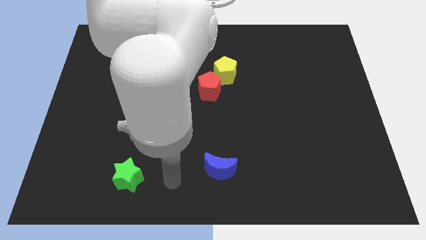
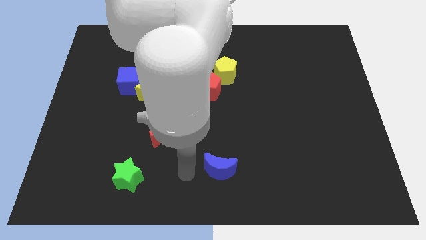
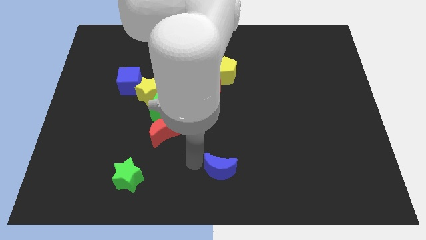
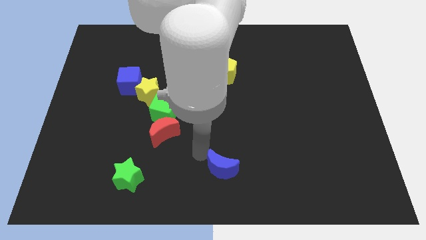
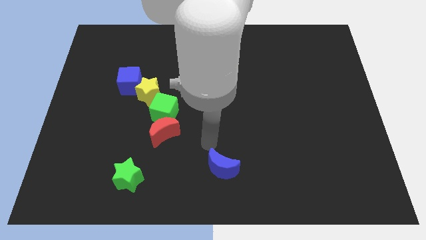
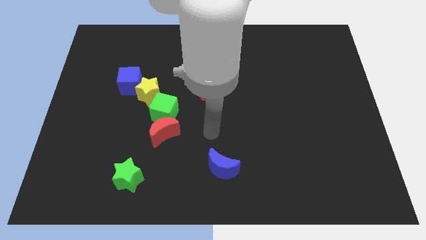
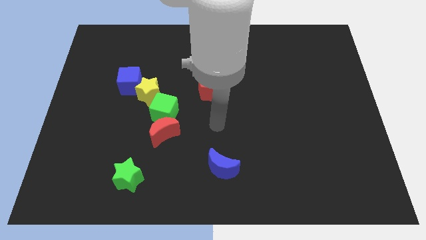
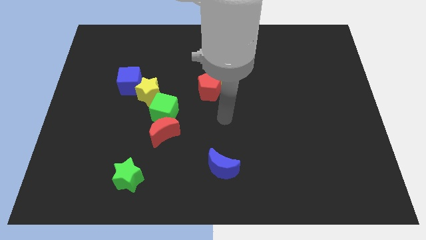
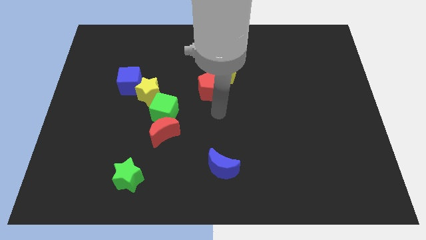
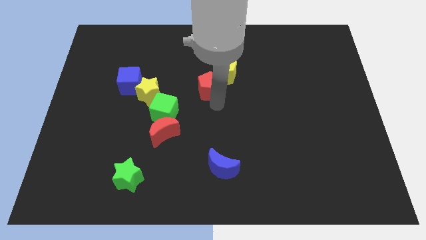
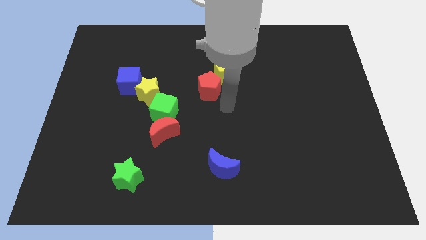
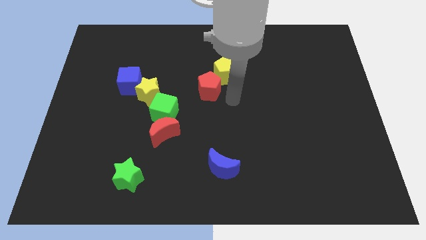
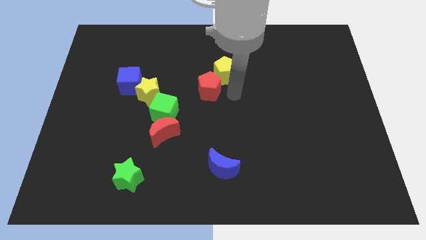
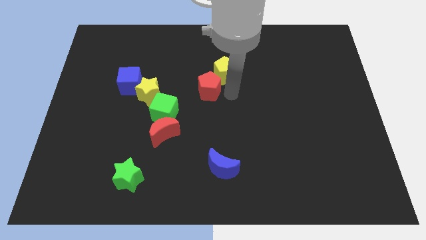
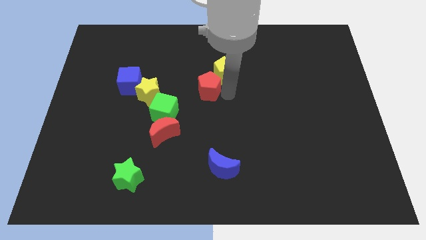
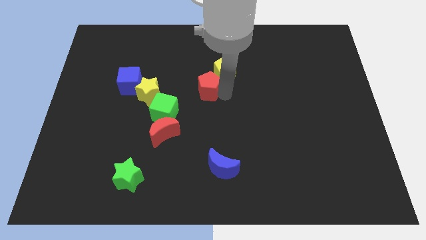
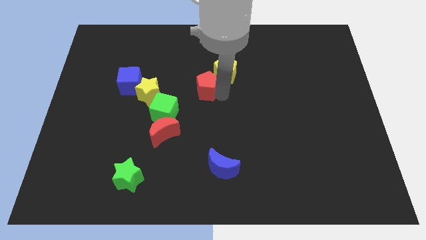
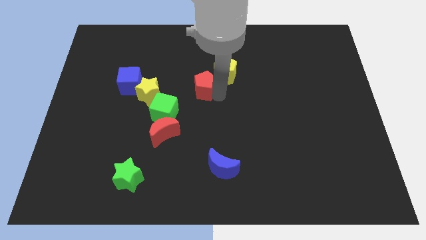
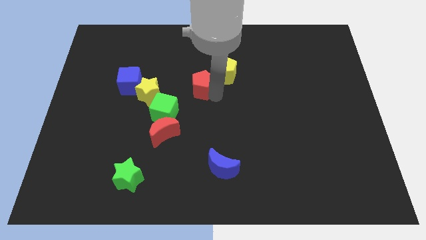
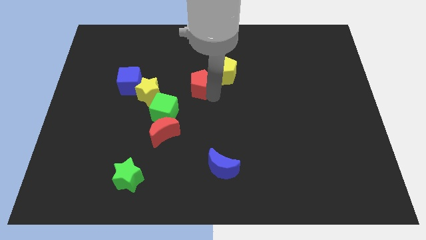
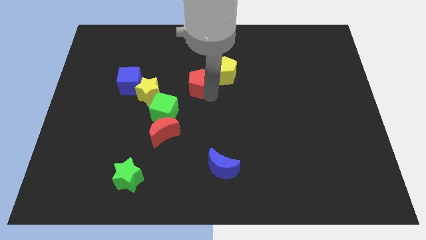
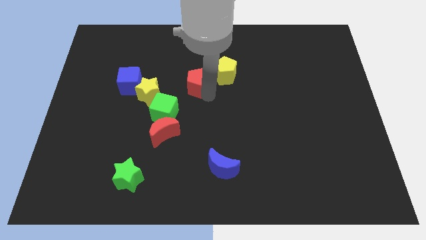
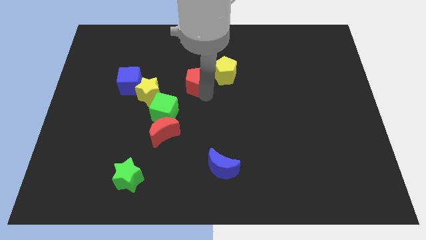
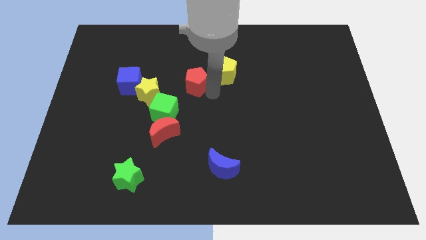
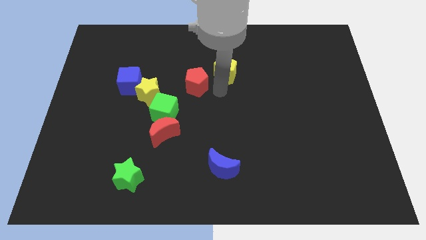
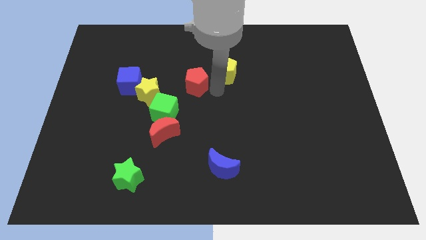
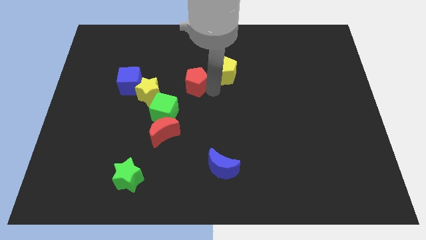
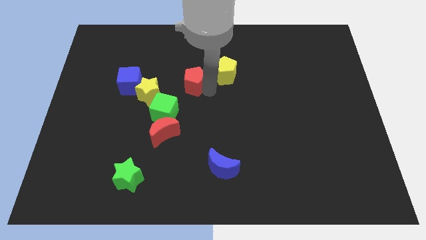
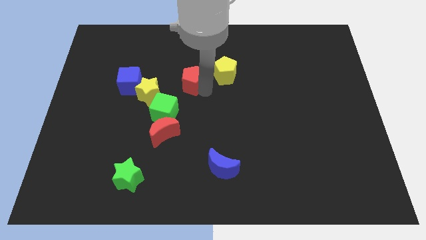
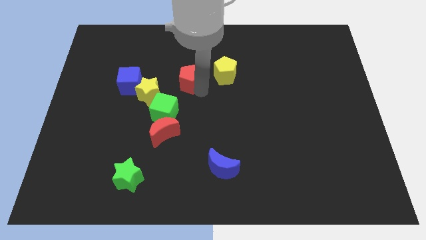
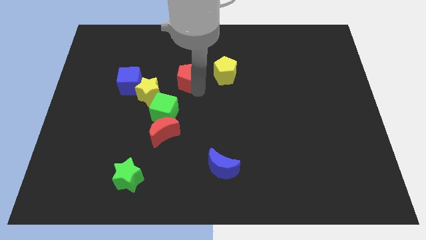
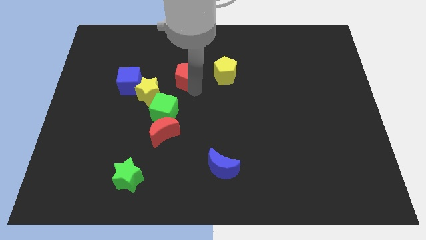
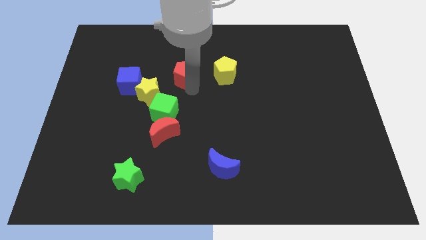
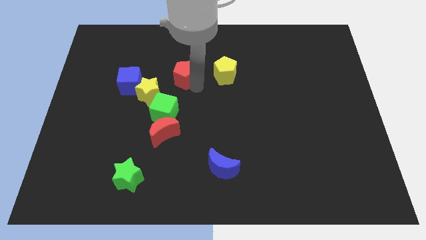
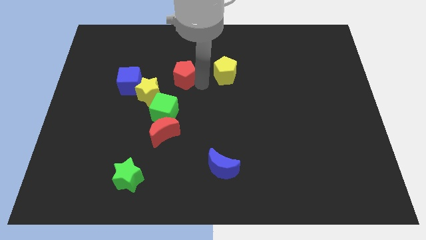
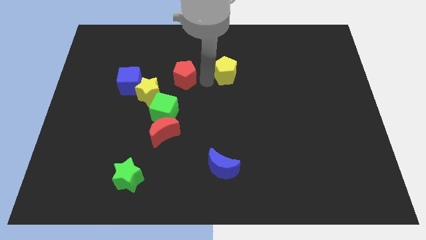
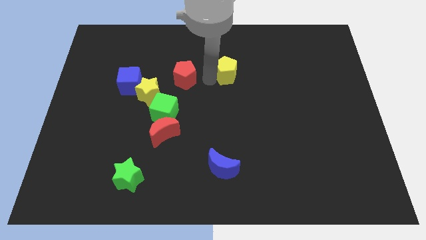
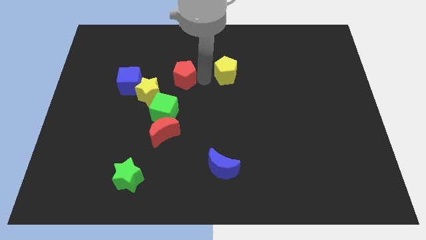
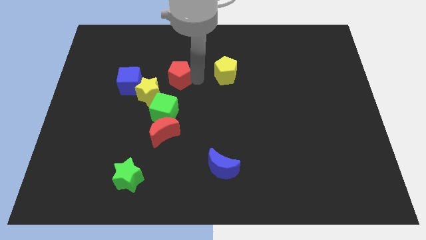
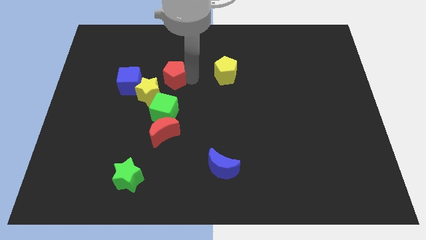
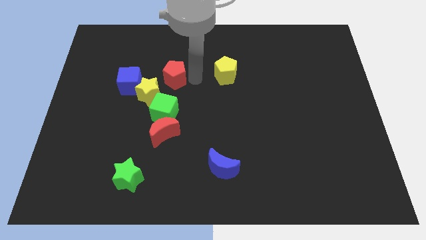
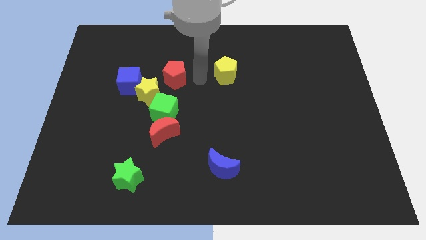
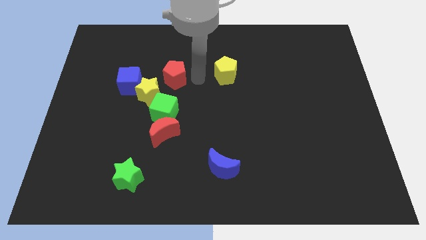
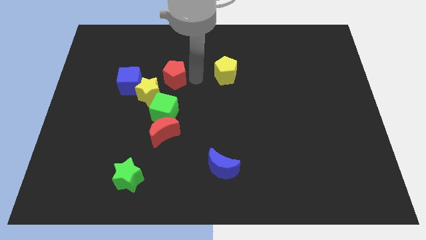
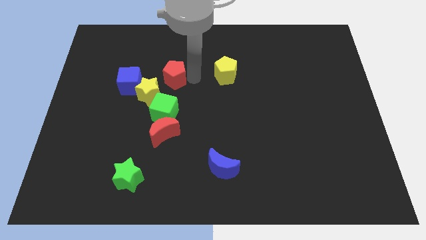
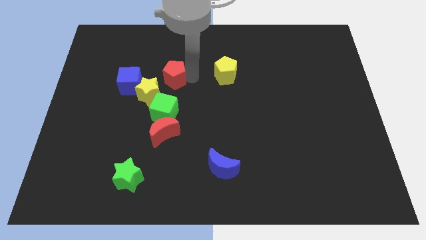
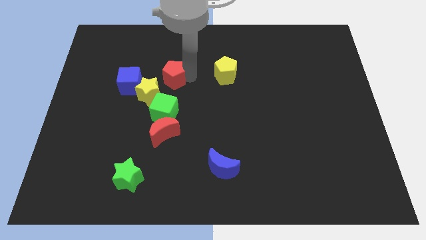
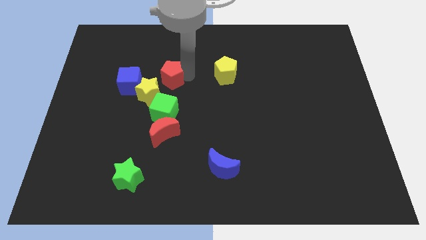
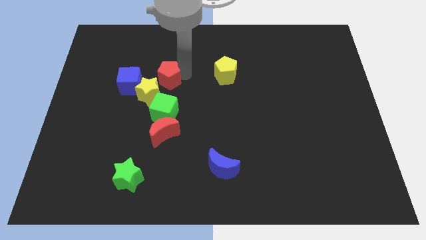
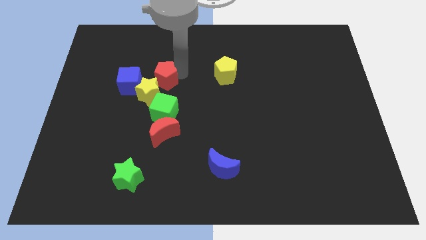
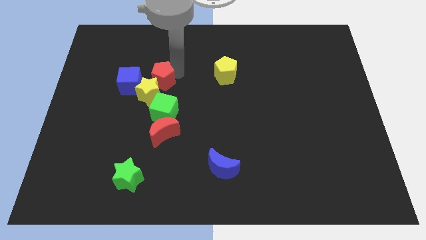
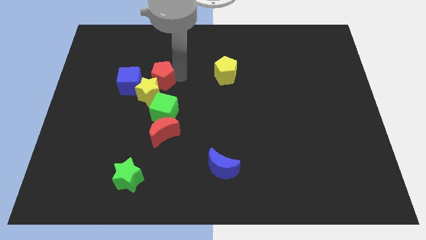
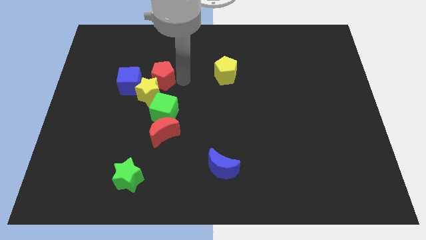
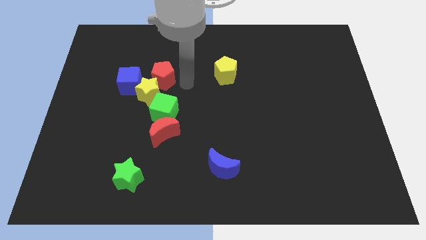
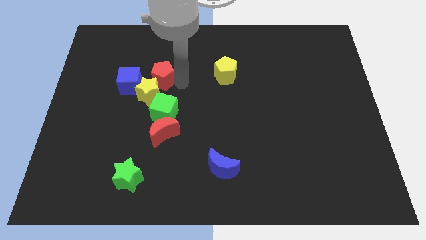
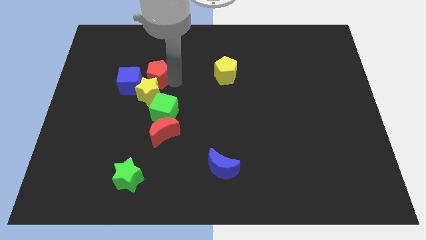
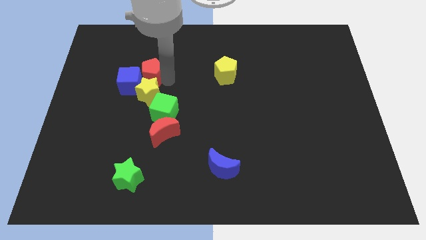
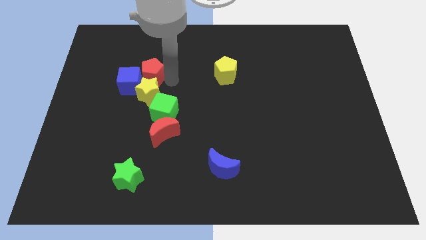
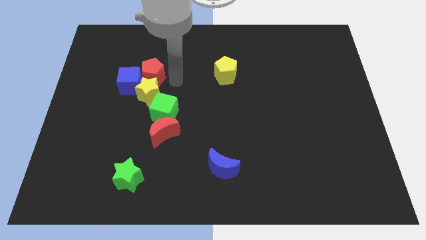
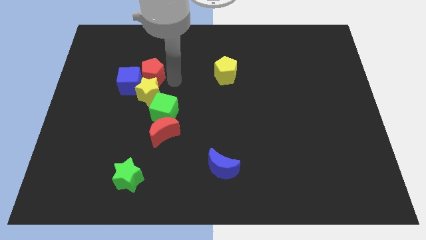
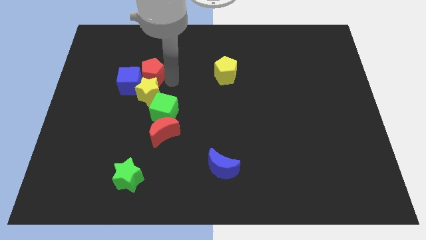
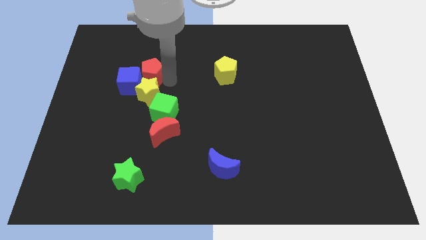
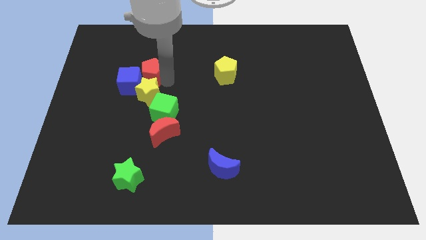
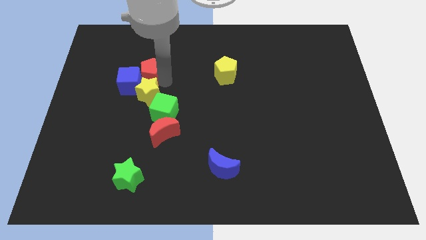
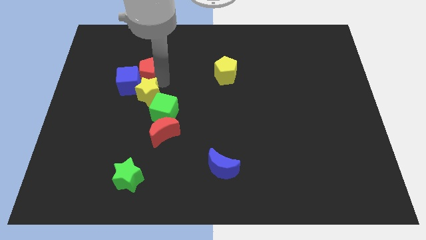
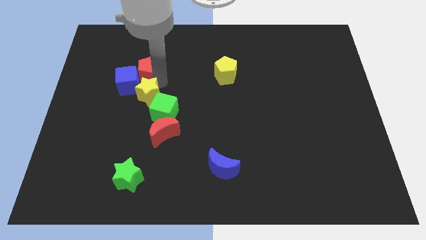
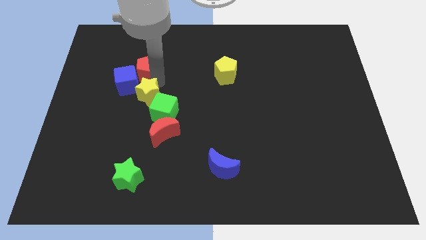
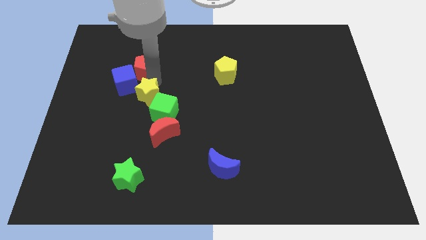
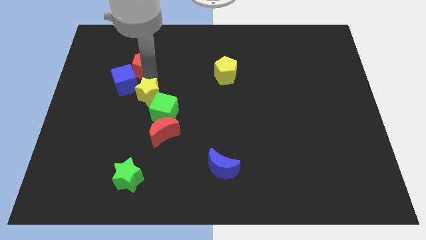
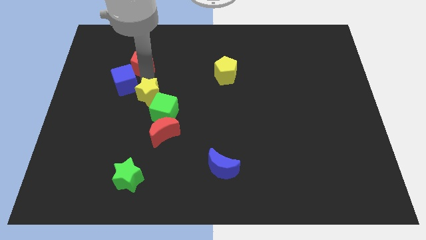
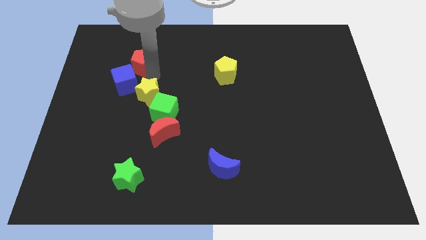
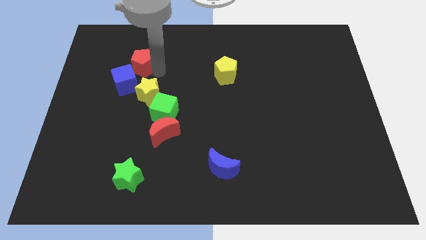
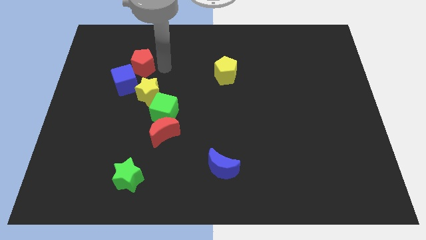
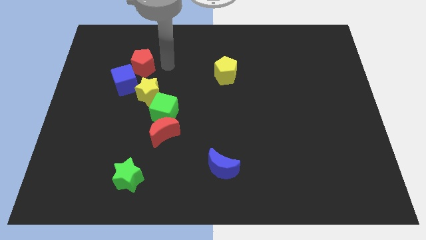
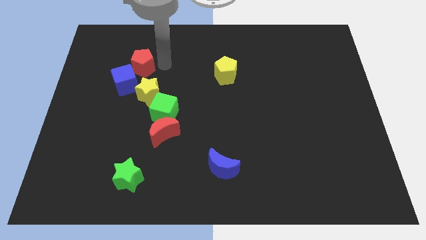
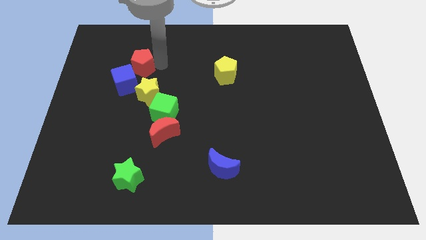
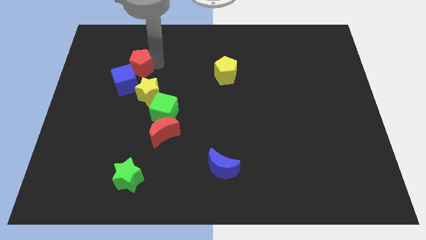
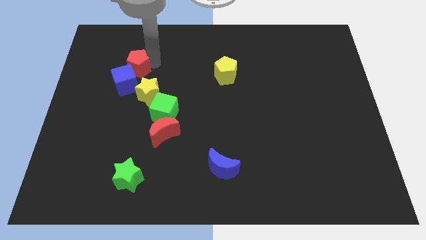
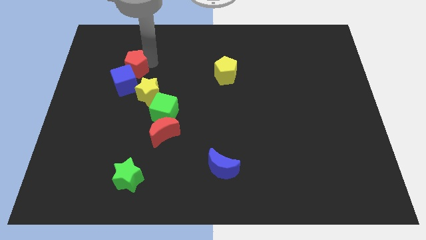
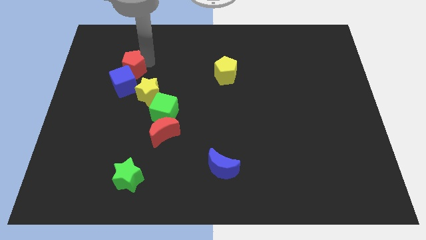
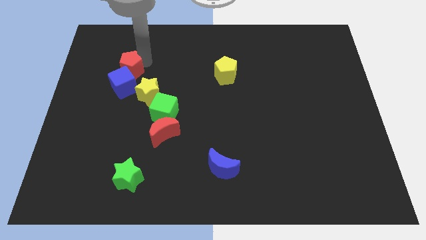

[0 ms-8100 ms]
put the red pentagon diagonally up and to the left of the blue cube
